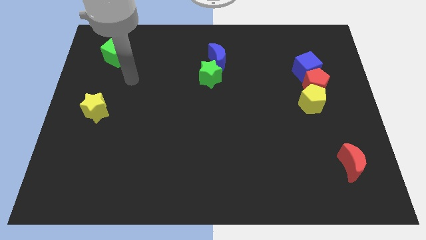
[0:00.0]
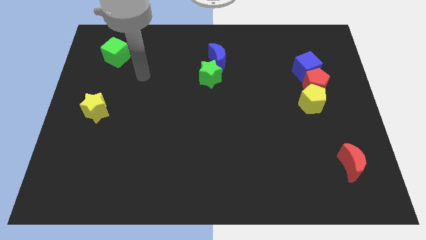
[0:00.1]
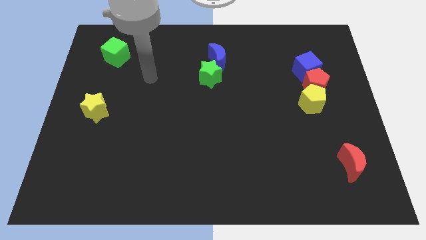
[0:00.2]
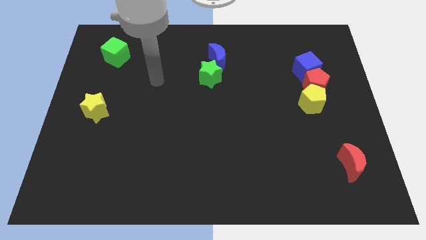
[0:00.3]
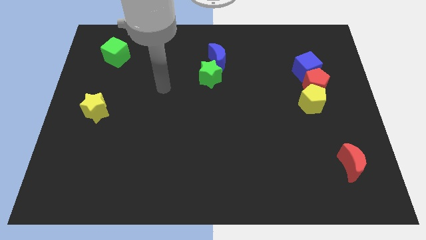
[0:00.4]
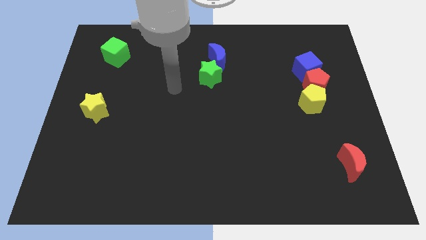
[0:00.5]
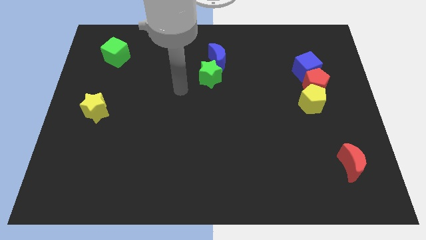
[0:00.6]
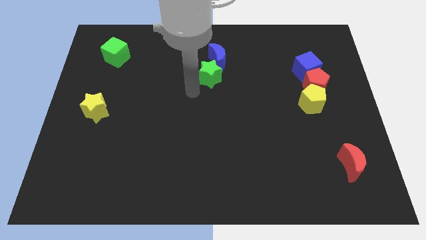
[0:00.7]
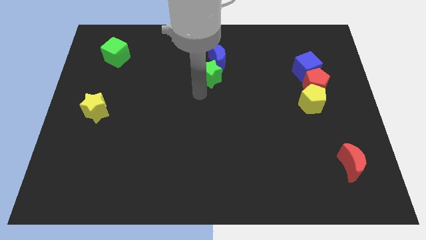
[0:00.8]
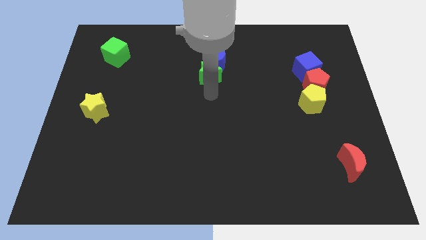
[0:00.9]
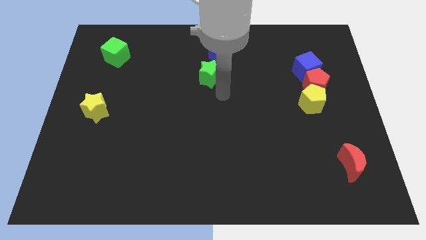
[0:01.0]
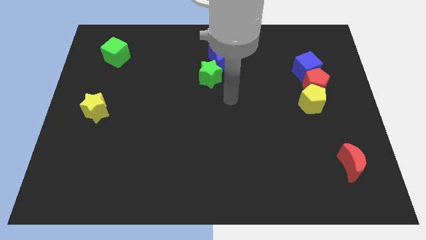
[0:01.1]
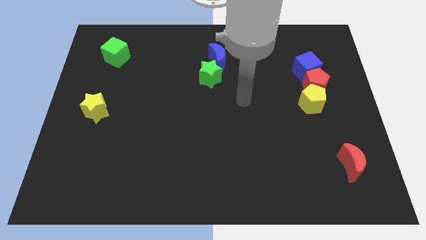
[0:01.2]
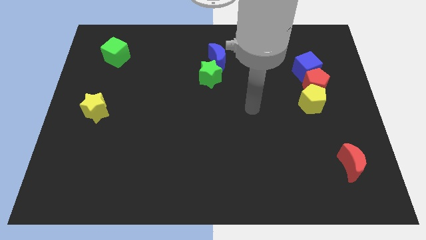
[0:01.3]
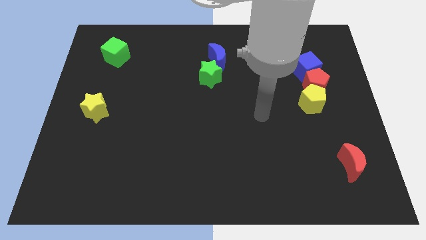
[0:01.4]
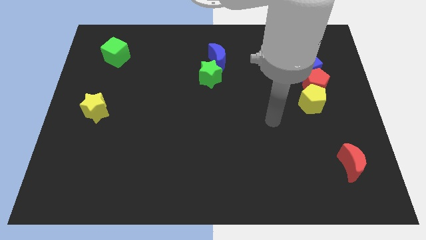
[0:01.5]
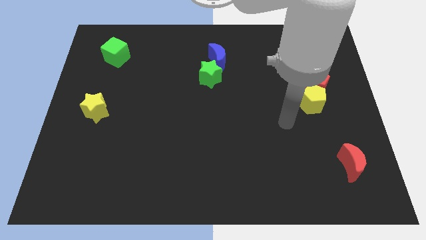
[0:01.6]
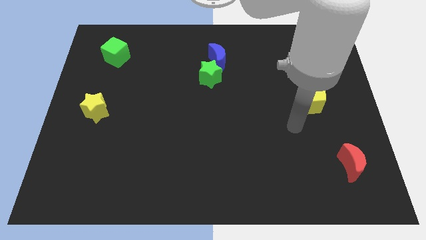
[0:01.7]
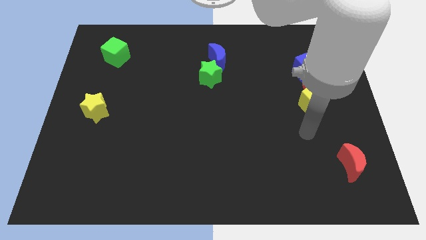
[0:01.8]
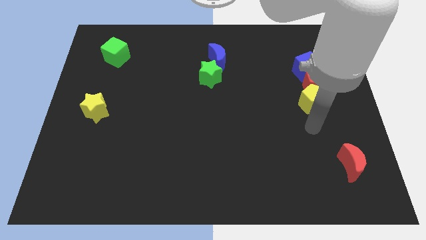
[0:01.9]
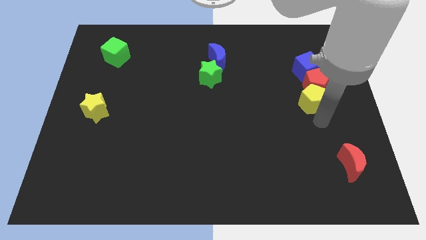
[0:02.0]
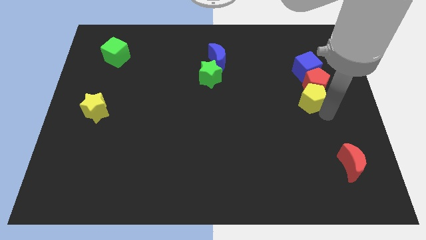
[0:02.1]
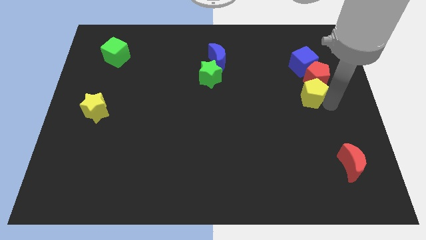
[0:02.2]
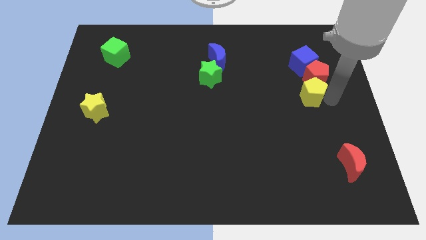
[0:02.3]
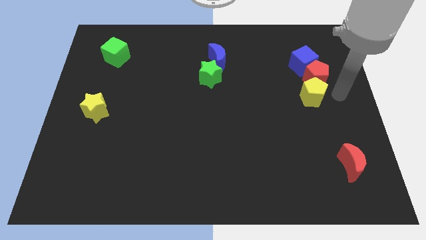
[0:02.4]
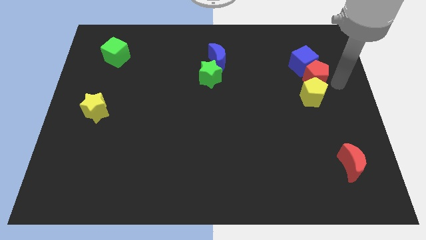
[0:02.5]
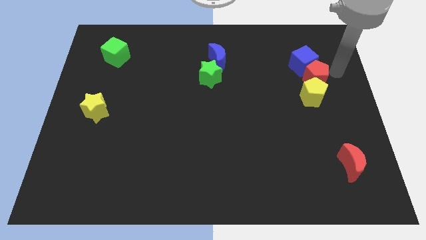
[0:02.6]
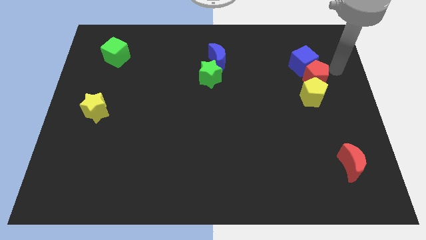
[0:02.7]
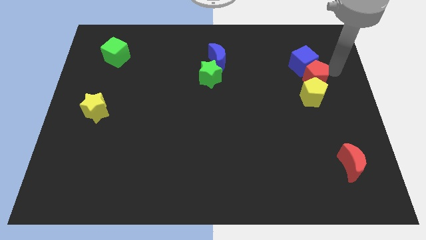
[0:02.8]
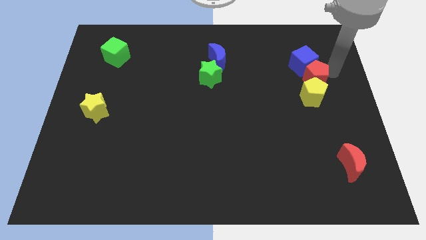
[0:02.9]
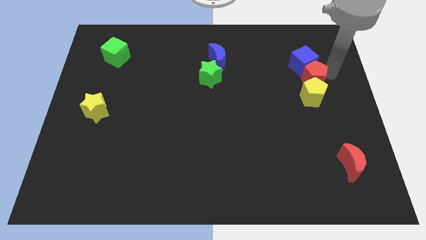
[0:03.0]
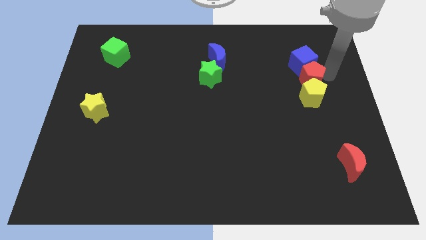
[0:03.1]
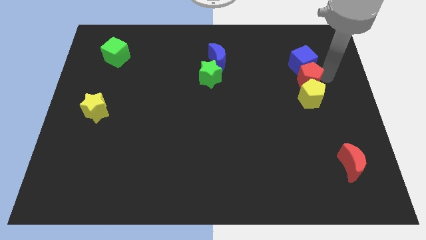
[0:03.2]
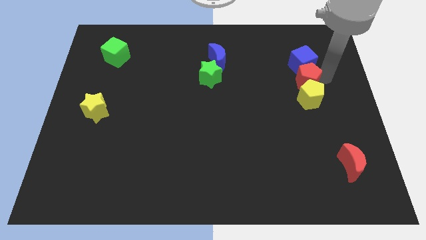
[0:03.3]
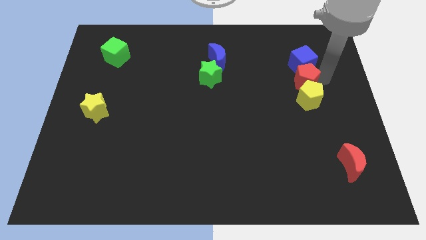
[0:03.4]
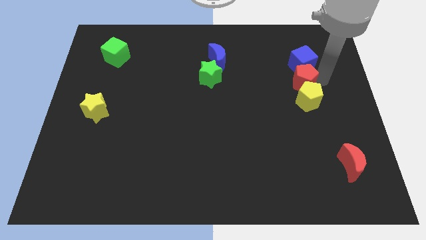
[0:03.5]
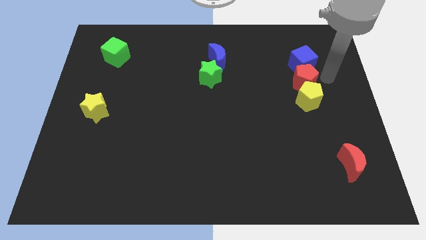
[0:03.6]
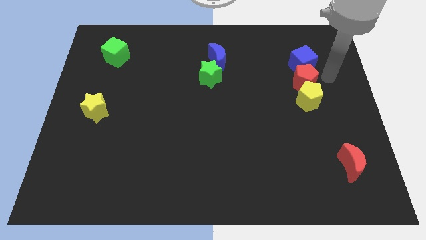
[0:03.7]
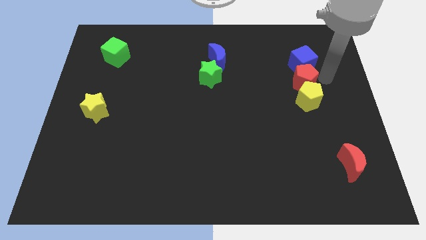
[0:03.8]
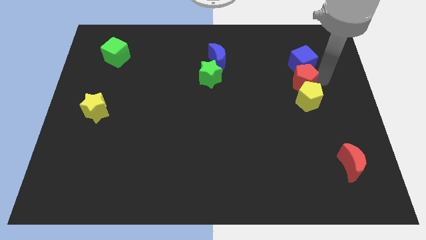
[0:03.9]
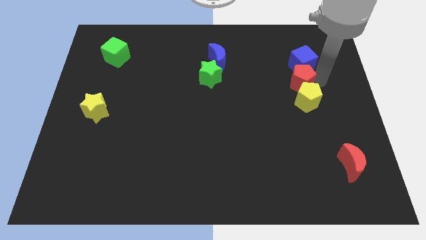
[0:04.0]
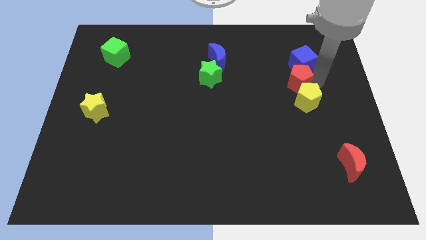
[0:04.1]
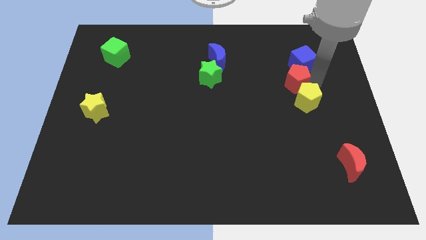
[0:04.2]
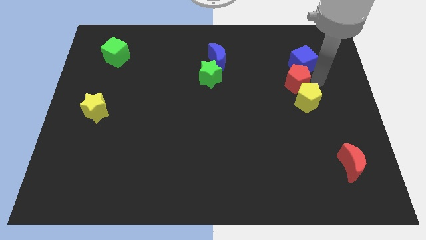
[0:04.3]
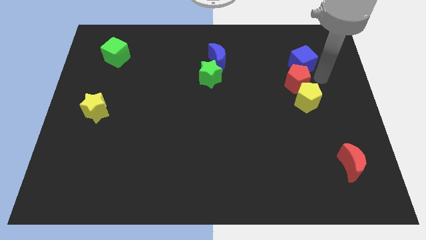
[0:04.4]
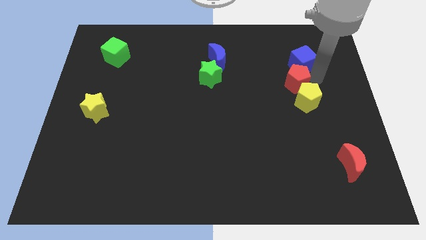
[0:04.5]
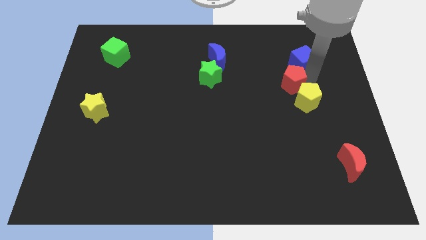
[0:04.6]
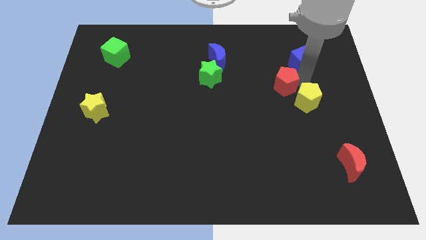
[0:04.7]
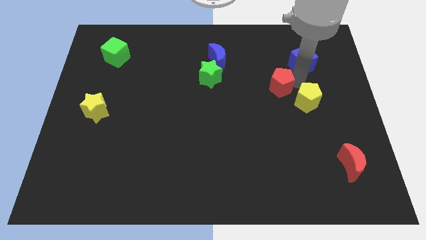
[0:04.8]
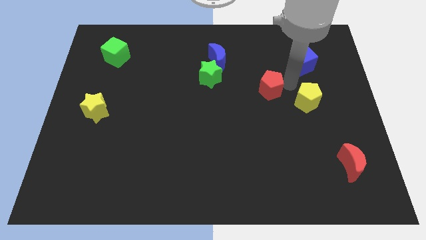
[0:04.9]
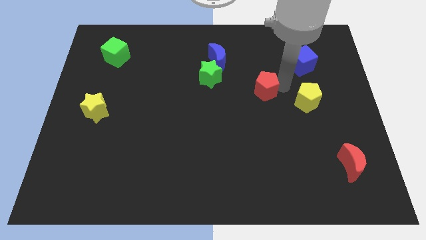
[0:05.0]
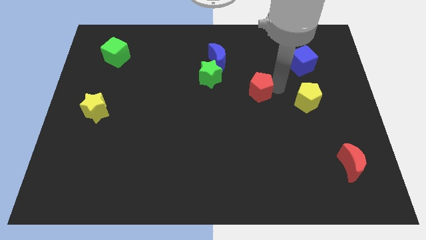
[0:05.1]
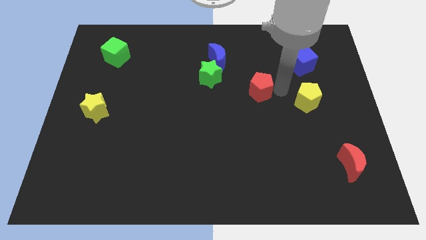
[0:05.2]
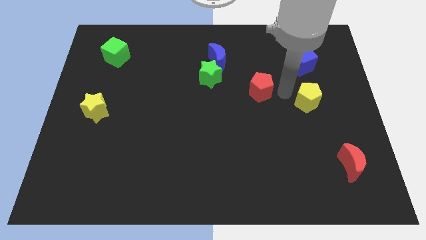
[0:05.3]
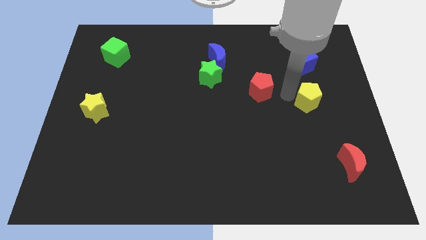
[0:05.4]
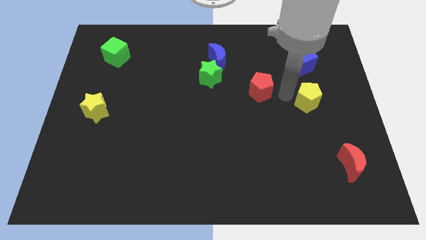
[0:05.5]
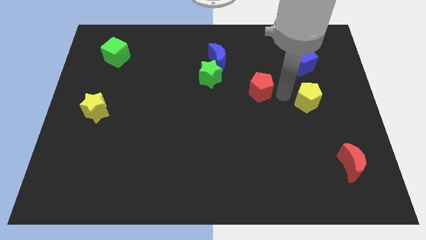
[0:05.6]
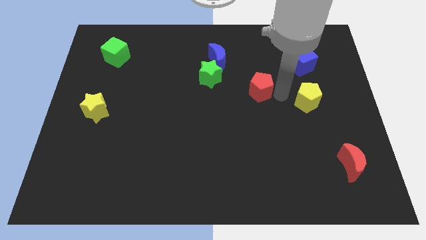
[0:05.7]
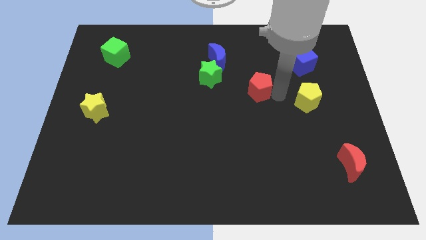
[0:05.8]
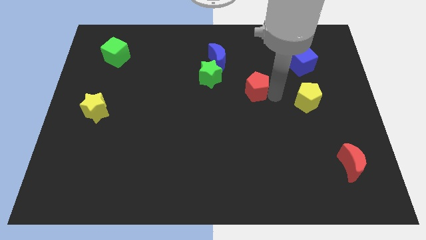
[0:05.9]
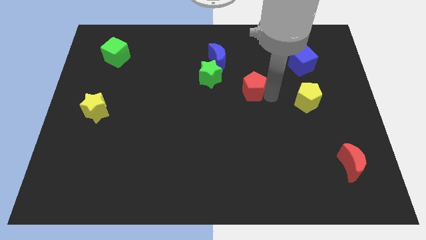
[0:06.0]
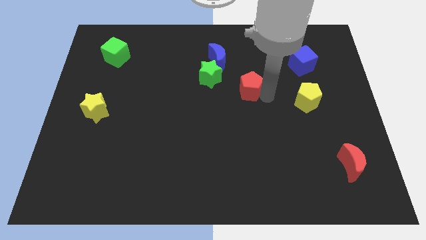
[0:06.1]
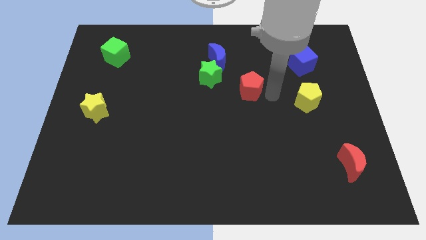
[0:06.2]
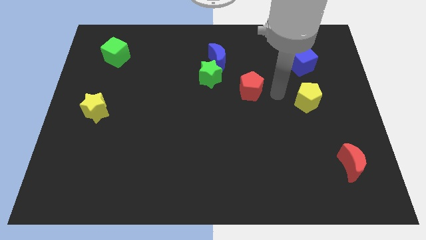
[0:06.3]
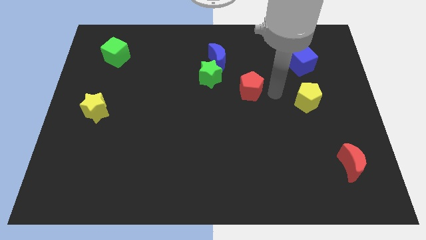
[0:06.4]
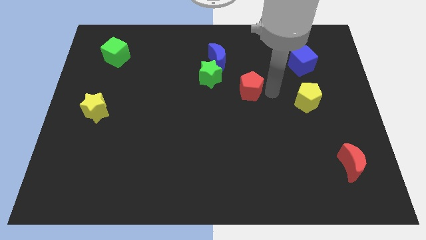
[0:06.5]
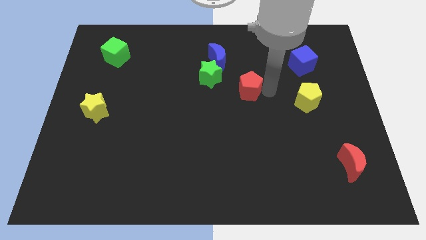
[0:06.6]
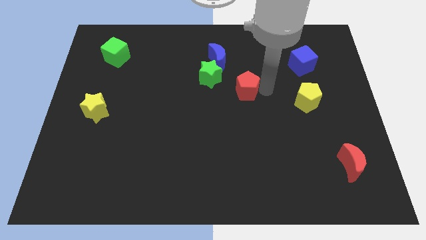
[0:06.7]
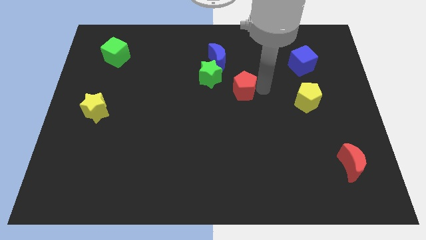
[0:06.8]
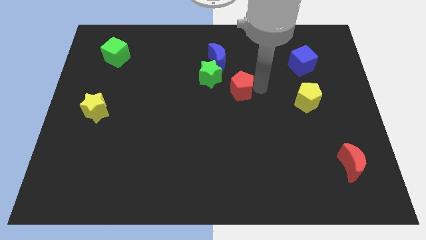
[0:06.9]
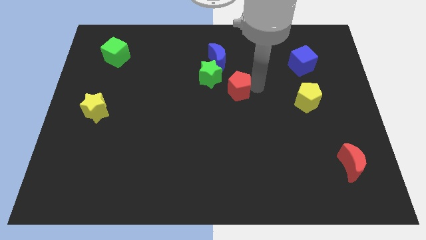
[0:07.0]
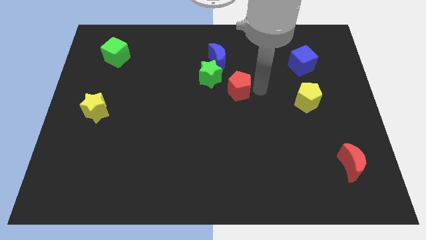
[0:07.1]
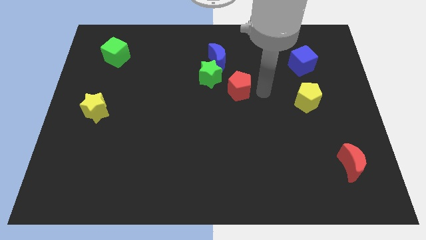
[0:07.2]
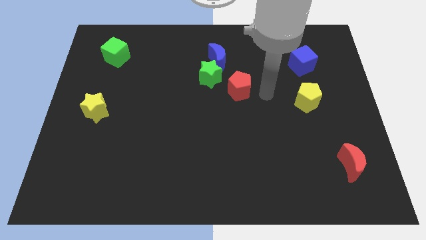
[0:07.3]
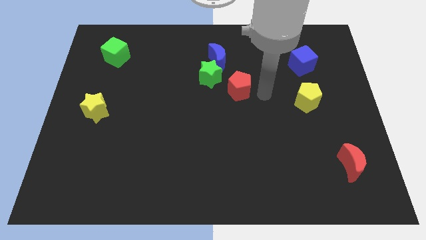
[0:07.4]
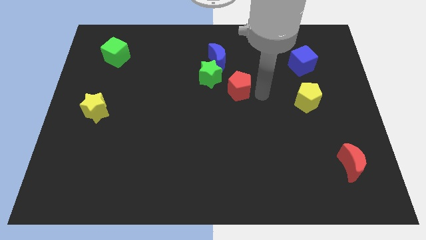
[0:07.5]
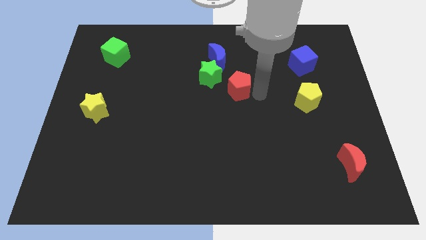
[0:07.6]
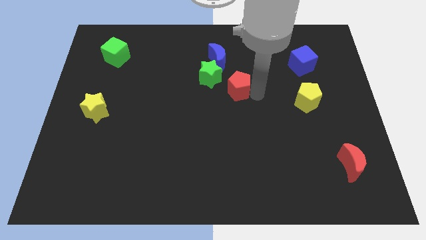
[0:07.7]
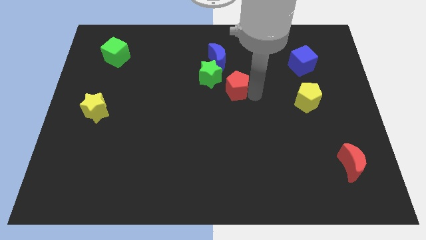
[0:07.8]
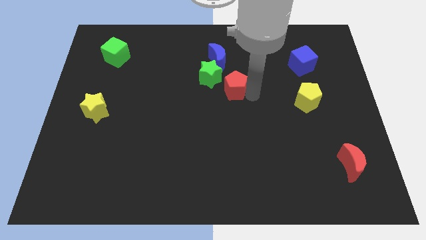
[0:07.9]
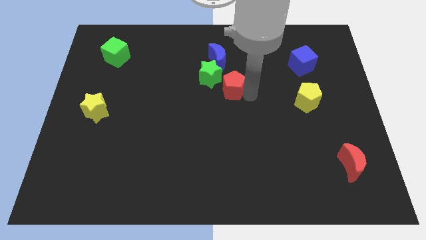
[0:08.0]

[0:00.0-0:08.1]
move the red pentagon to the left

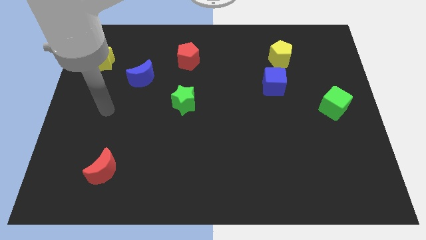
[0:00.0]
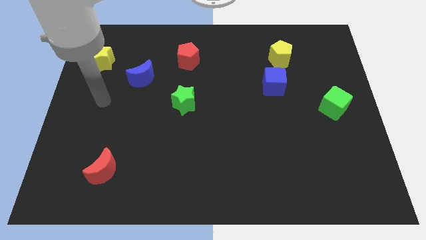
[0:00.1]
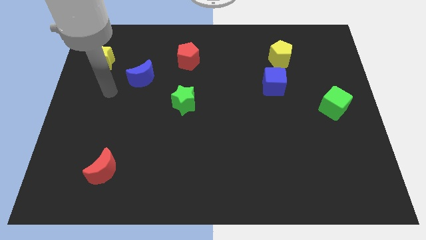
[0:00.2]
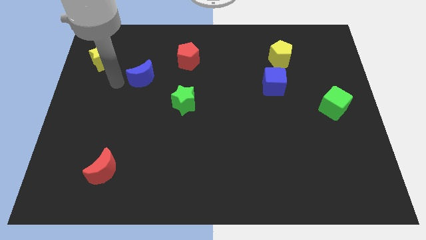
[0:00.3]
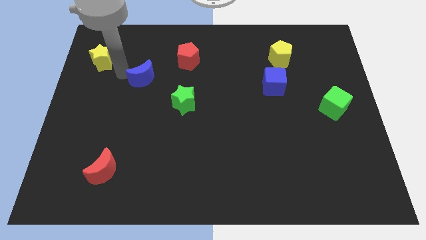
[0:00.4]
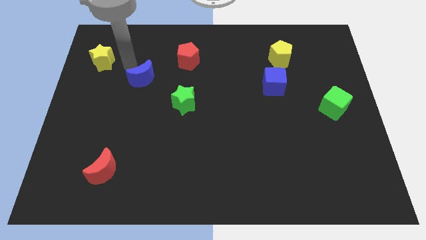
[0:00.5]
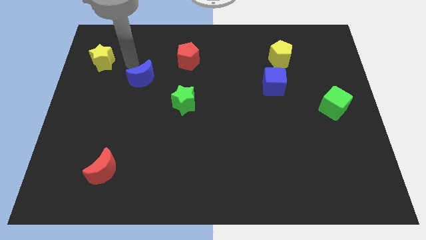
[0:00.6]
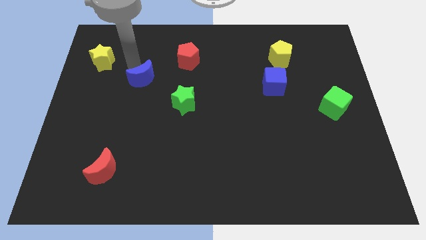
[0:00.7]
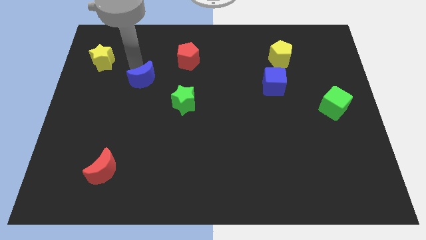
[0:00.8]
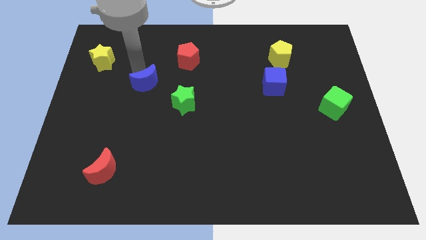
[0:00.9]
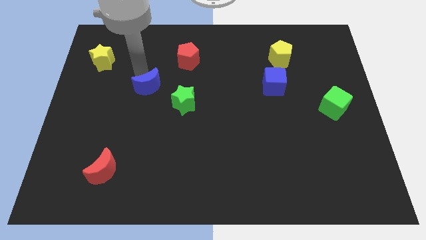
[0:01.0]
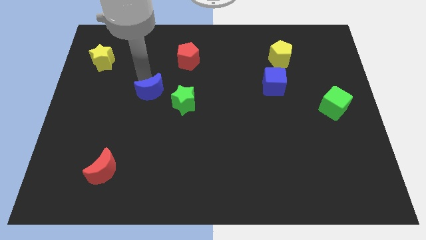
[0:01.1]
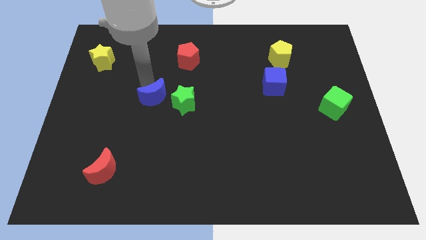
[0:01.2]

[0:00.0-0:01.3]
slightly move the blue moon diagonally down and right
